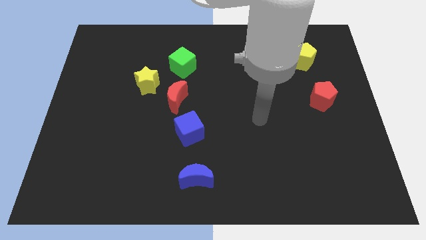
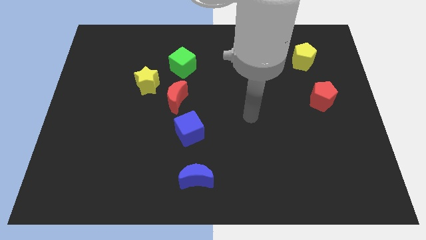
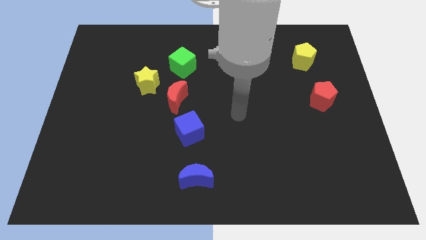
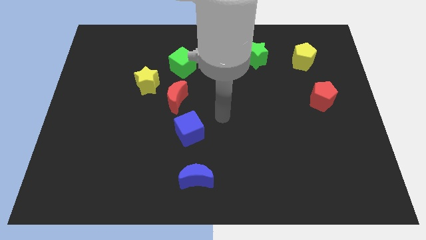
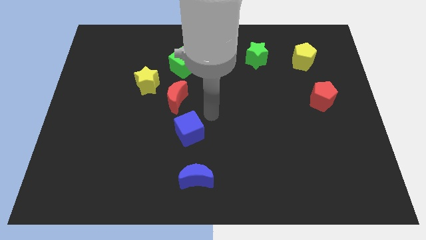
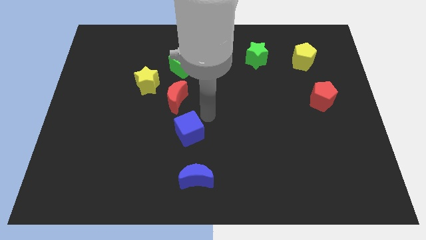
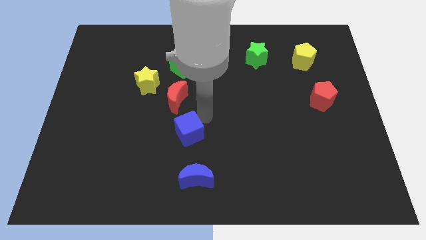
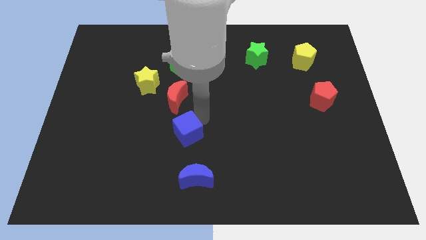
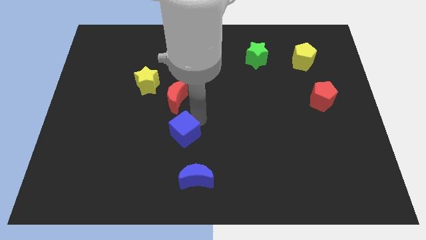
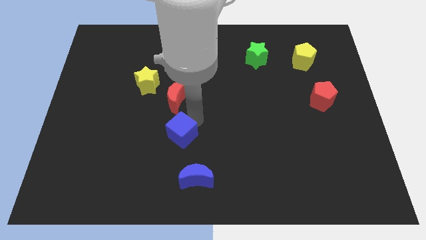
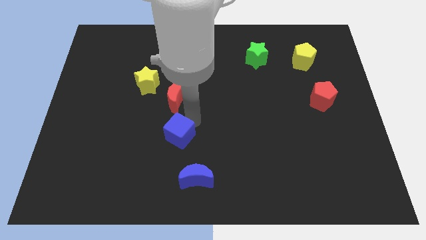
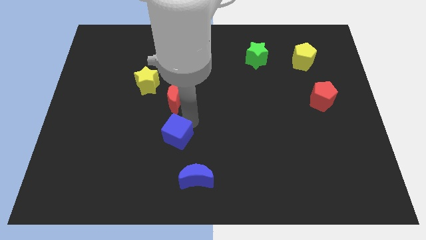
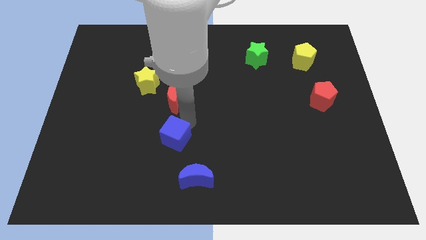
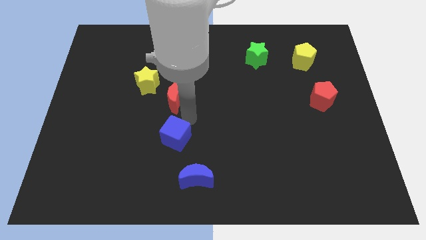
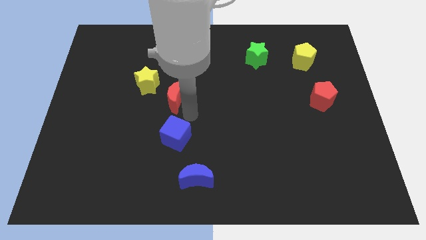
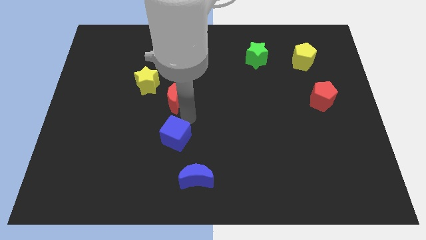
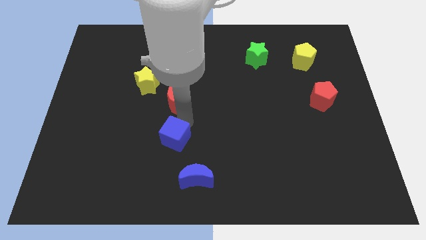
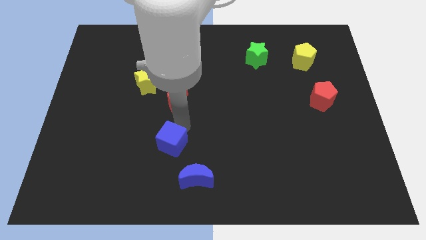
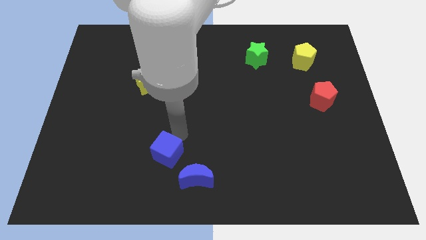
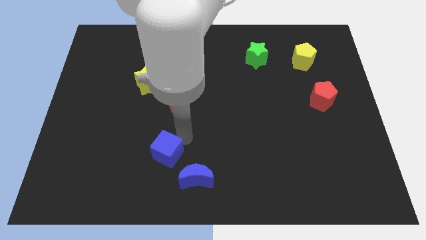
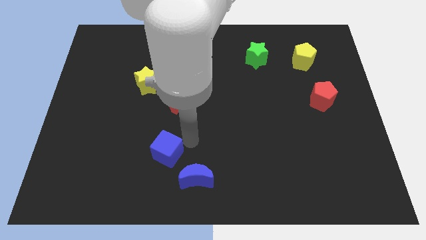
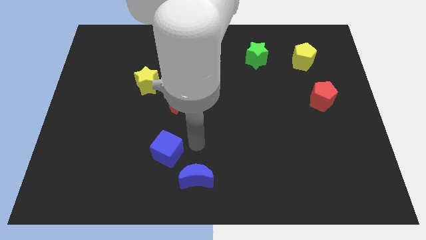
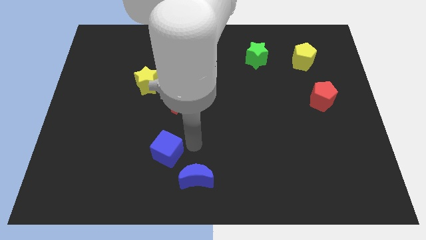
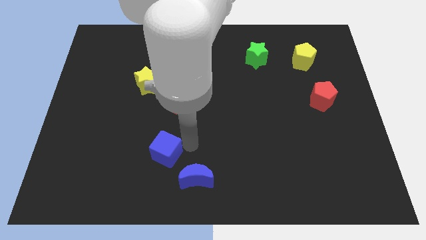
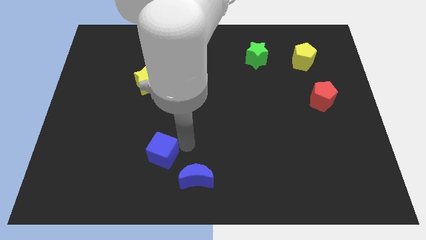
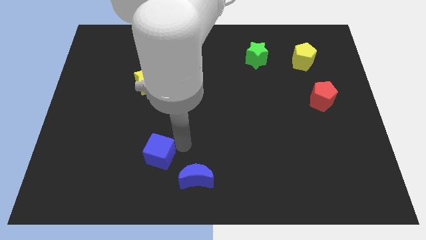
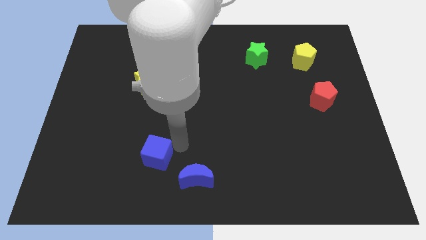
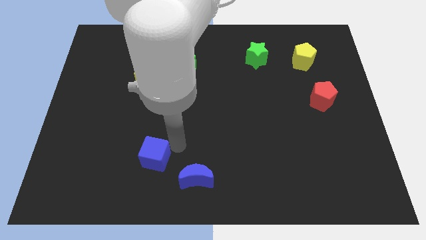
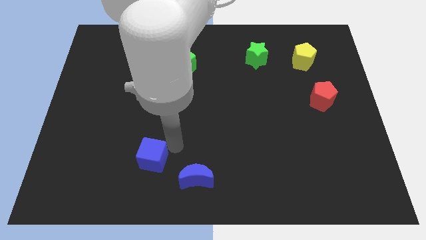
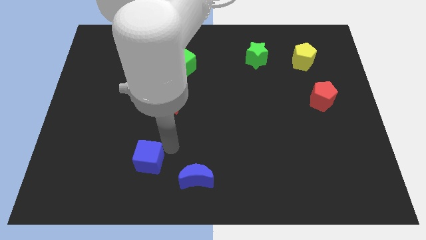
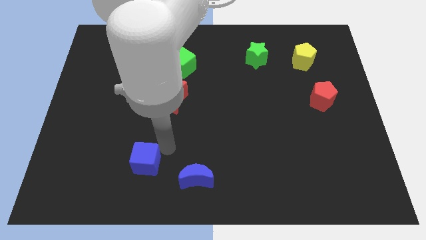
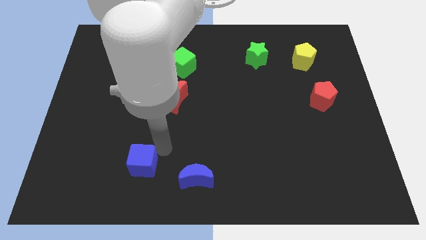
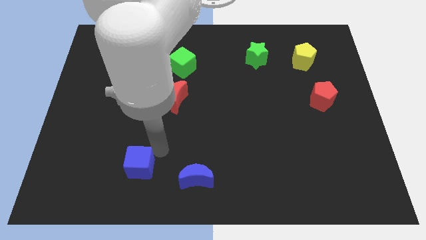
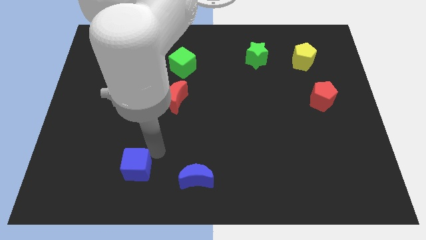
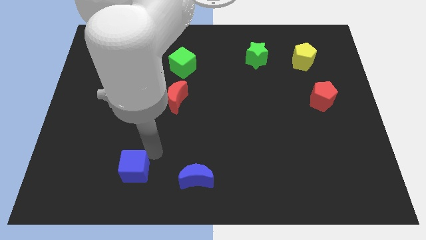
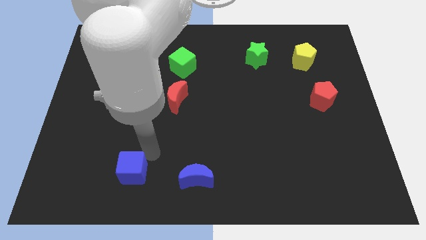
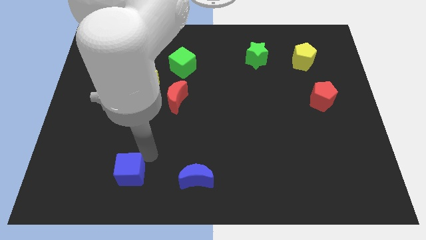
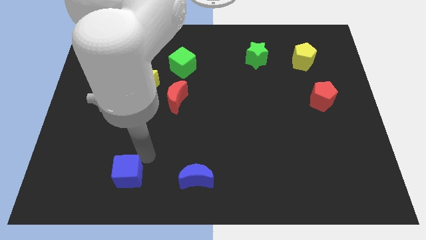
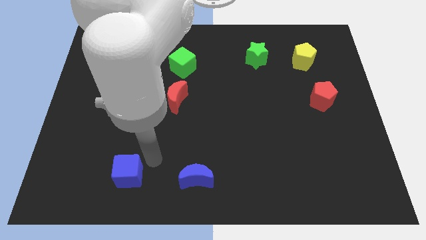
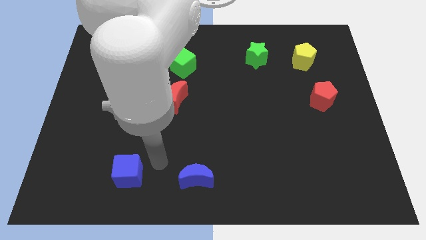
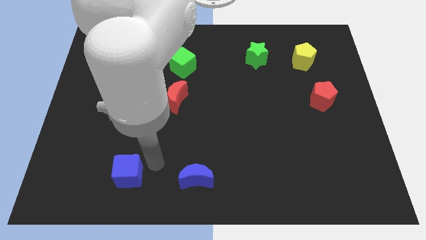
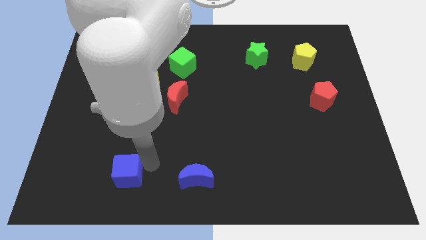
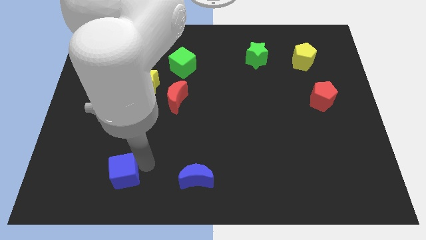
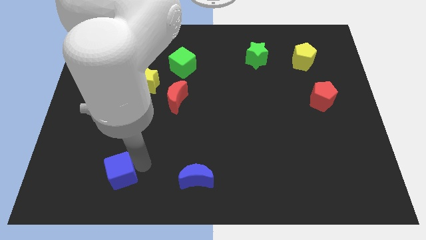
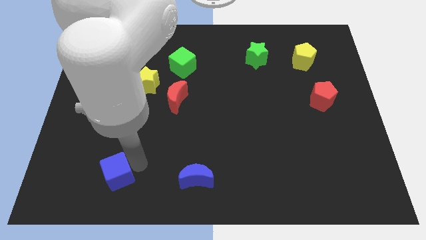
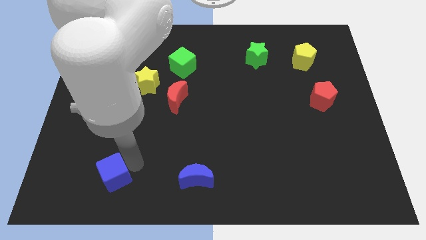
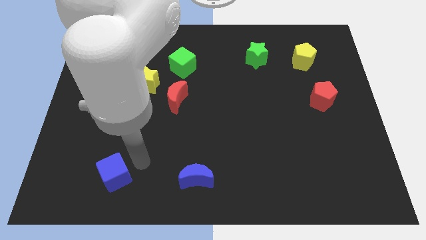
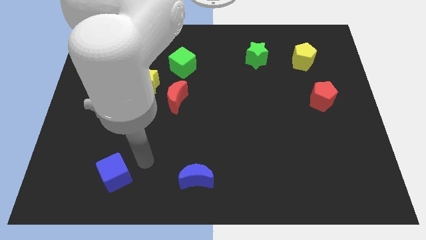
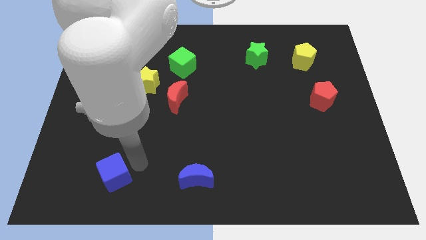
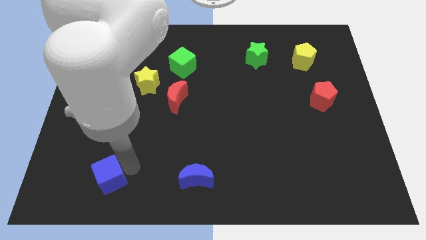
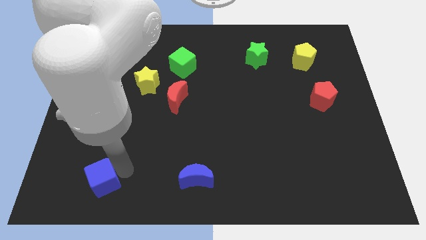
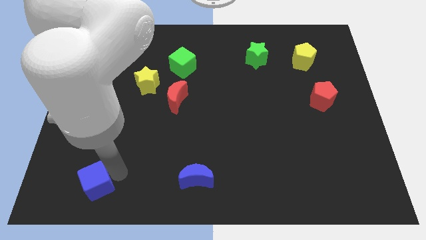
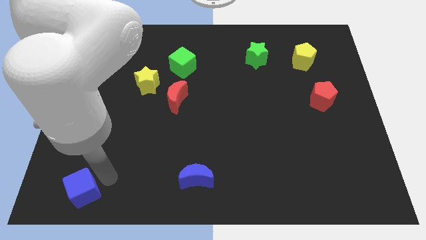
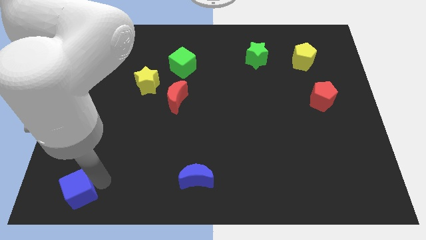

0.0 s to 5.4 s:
put the blue cube to the bottom left of the board

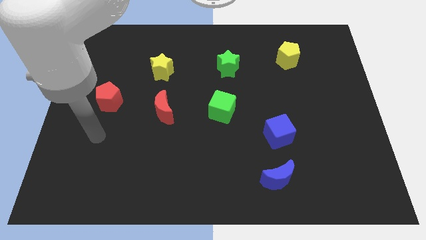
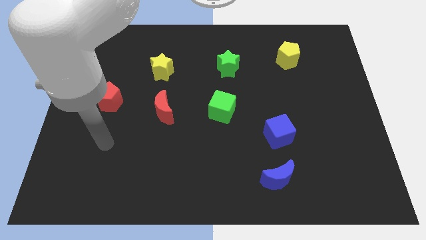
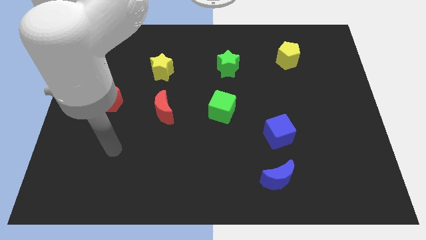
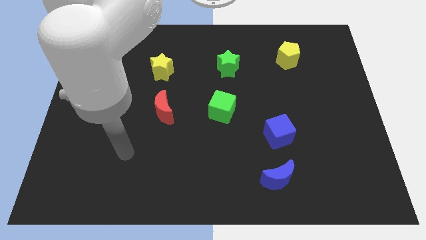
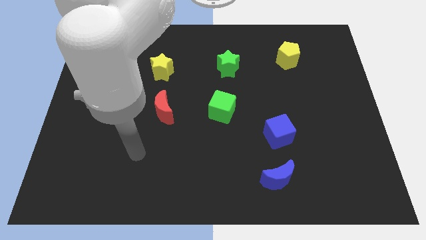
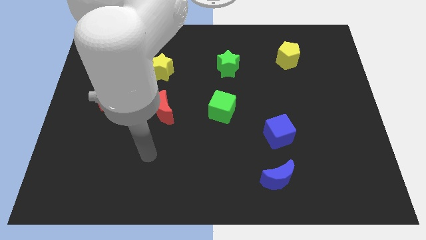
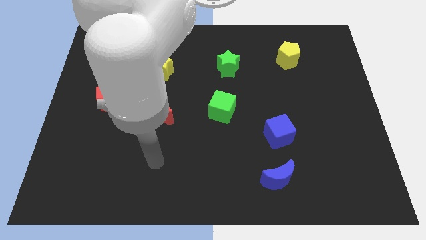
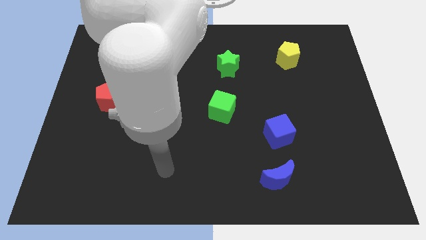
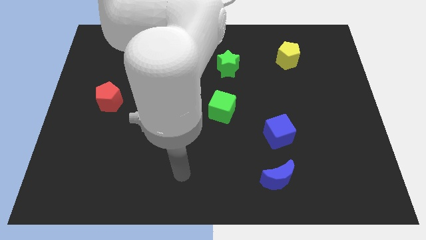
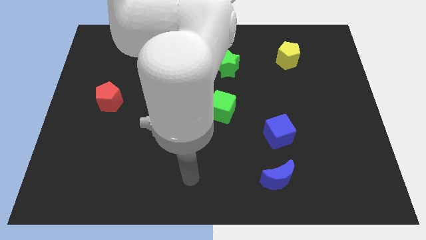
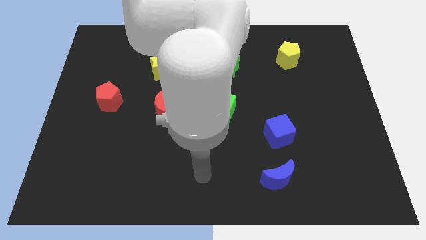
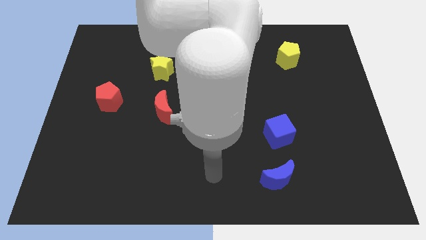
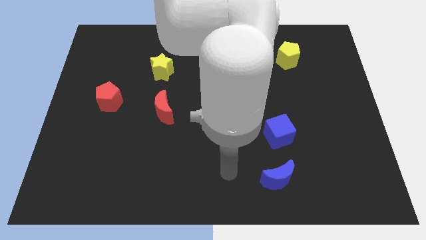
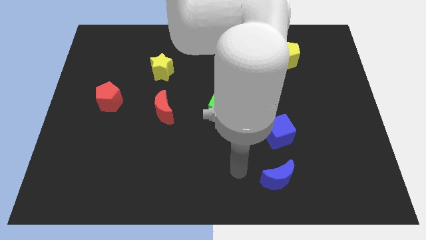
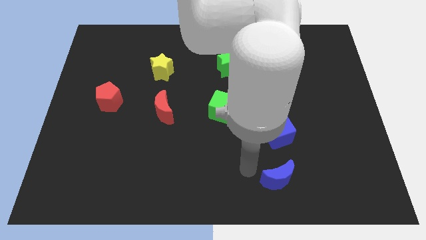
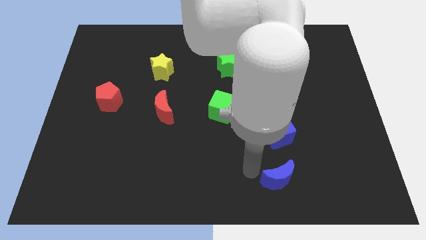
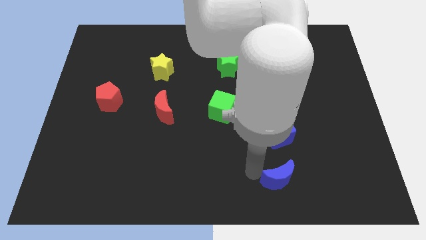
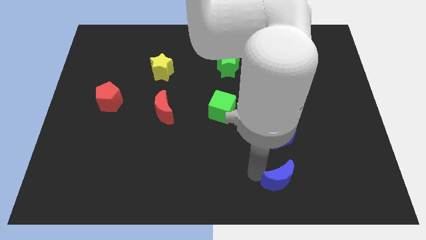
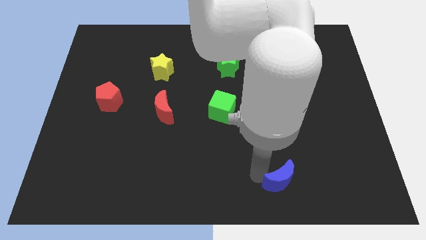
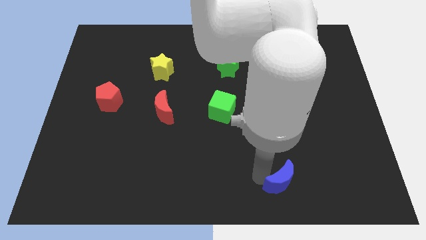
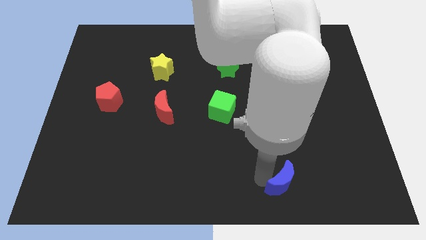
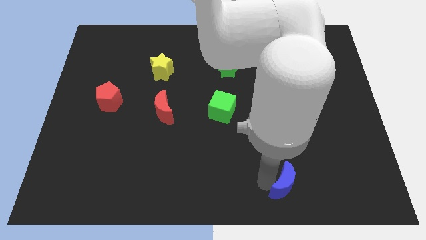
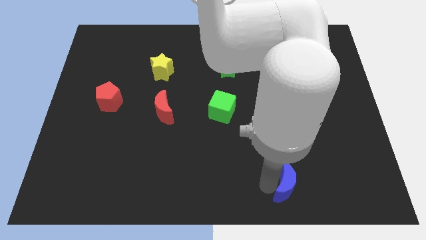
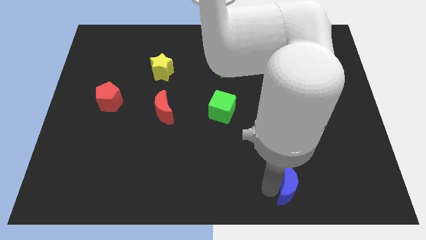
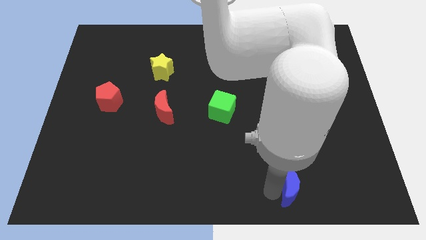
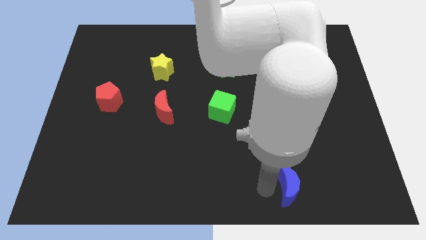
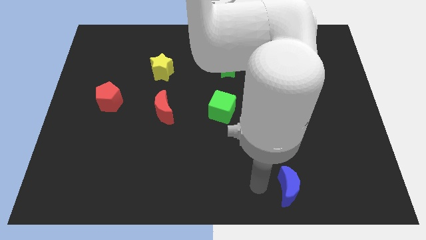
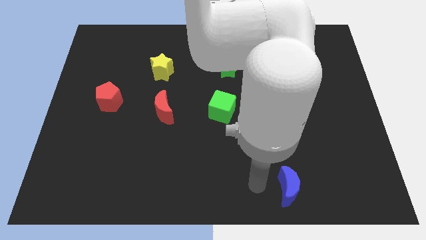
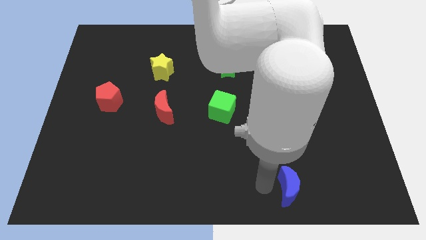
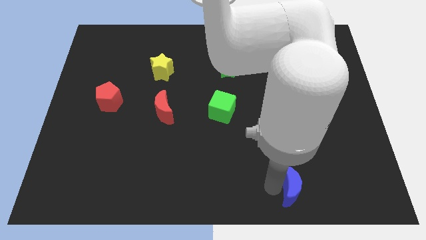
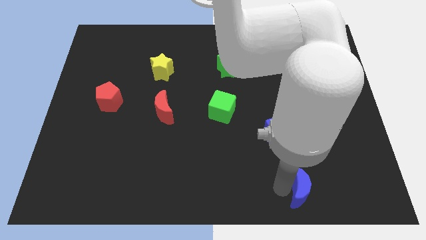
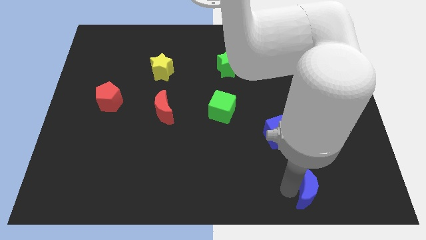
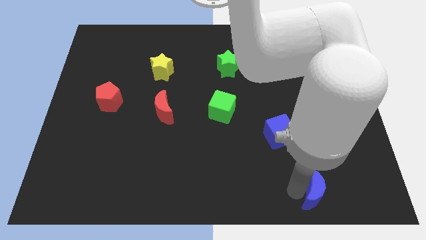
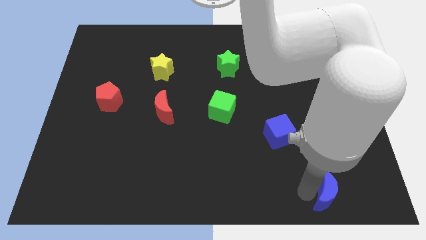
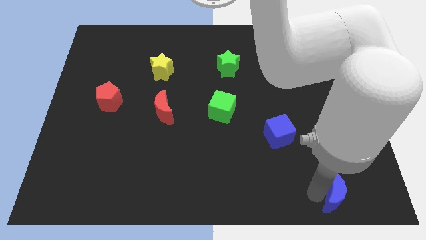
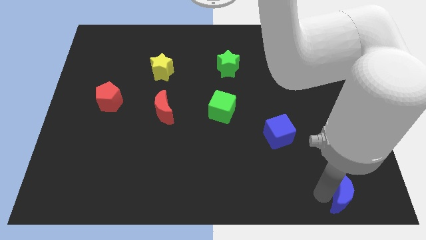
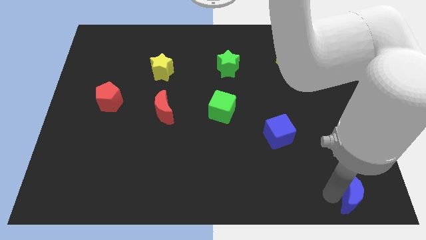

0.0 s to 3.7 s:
slide the blue moon to the lower right corner
